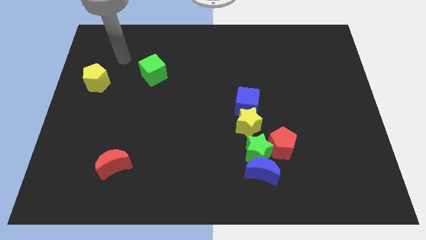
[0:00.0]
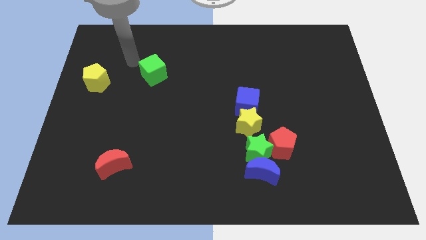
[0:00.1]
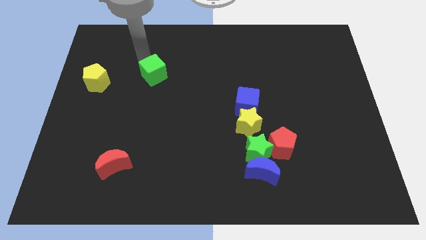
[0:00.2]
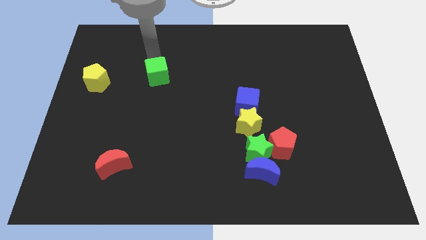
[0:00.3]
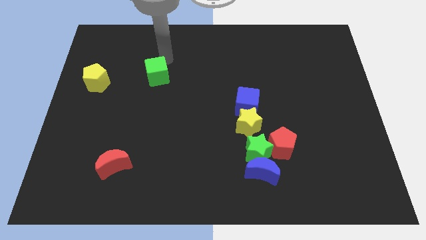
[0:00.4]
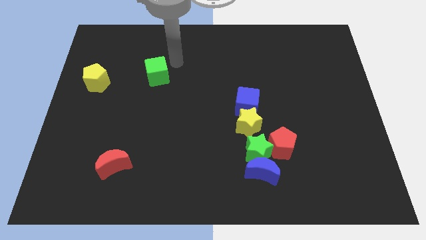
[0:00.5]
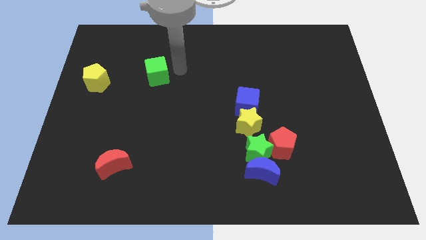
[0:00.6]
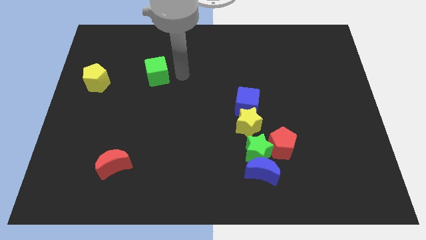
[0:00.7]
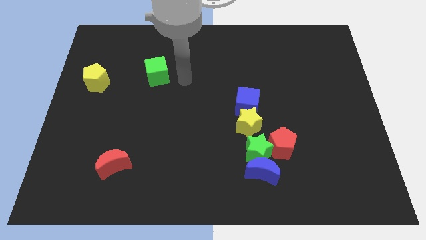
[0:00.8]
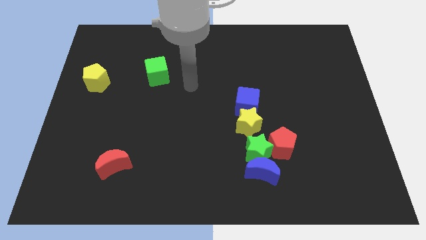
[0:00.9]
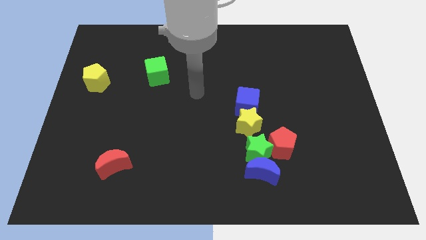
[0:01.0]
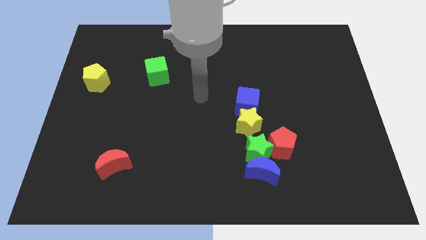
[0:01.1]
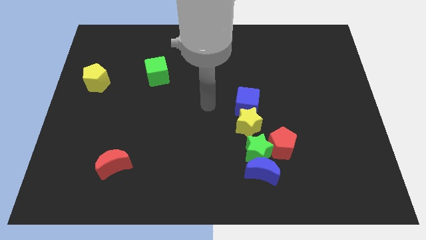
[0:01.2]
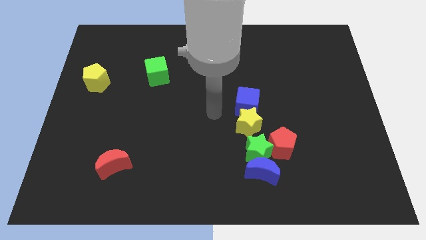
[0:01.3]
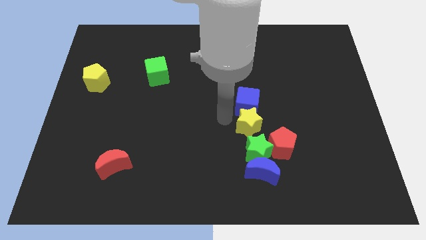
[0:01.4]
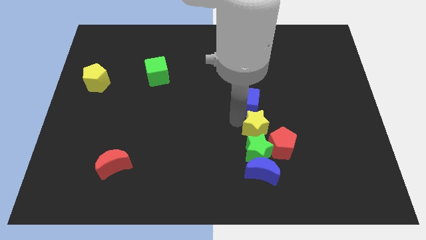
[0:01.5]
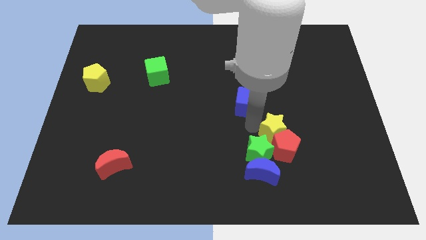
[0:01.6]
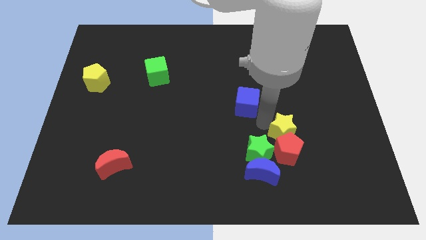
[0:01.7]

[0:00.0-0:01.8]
move the blue cube away from the yellow star

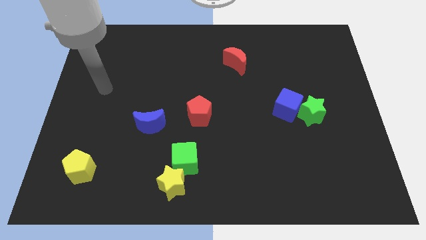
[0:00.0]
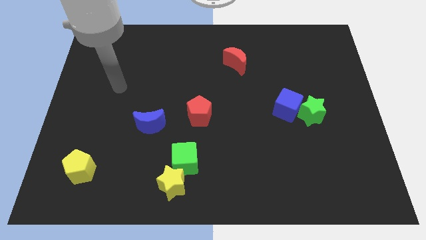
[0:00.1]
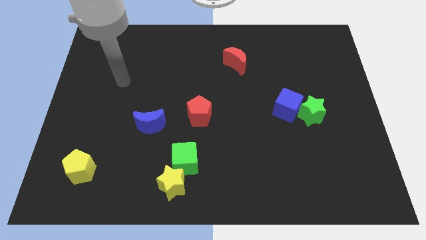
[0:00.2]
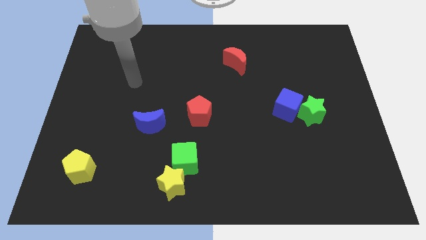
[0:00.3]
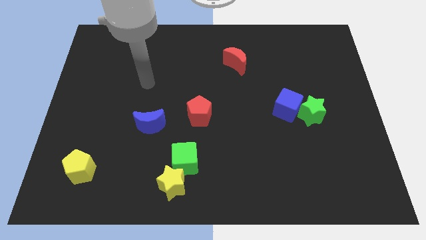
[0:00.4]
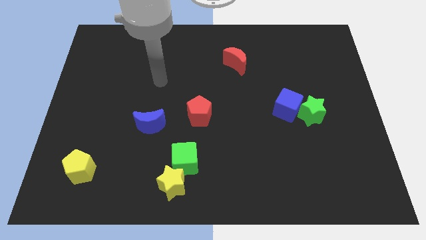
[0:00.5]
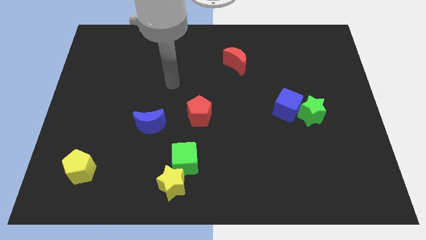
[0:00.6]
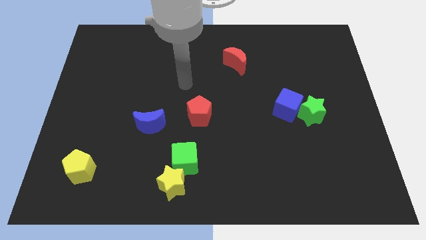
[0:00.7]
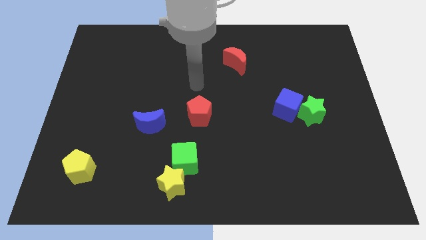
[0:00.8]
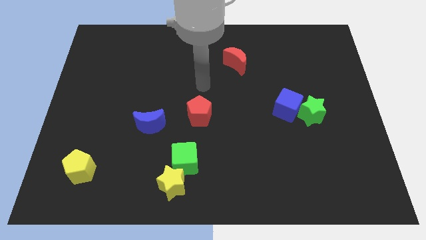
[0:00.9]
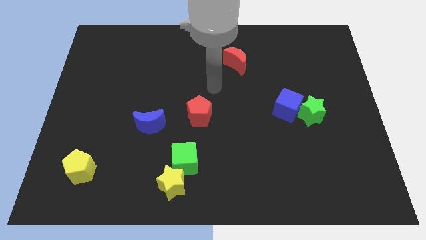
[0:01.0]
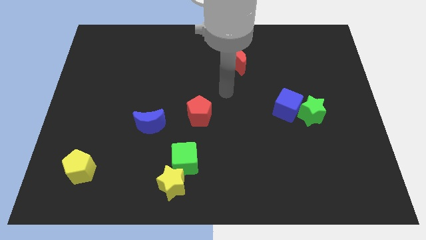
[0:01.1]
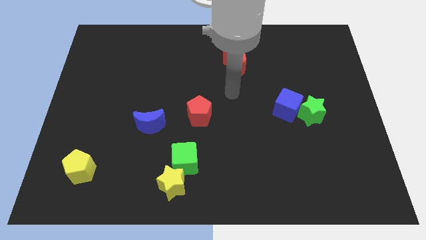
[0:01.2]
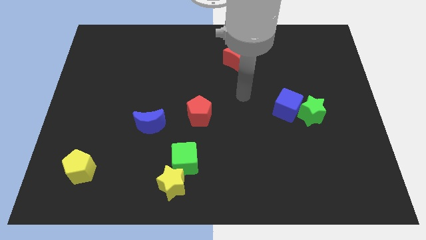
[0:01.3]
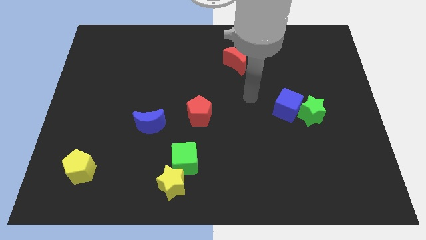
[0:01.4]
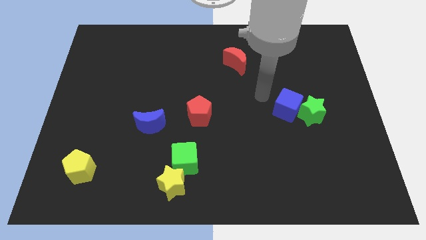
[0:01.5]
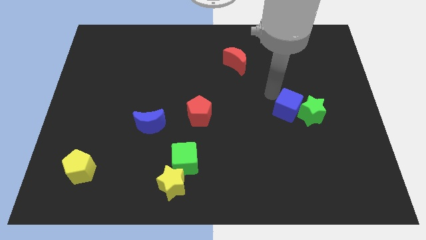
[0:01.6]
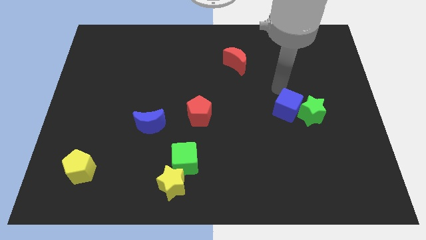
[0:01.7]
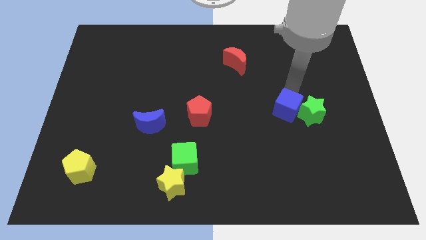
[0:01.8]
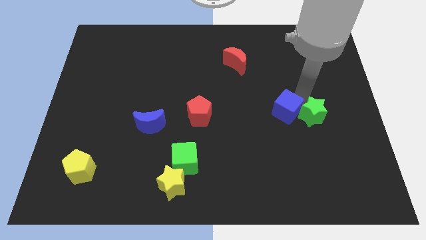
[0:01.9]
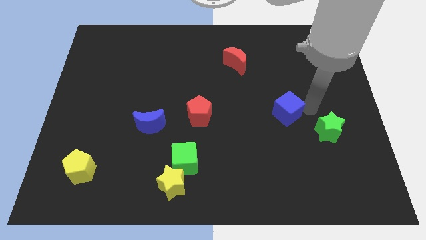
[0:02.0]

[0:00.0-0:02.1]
move the blue cube away from the green star

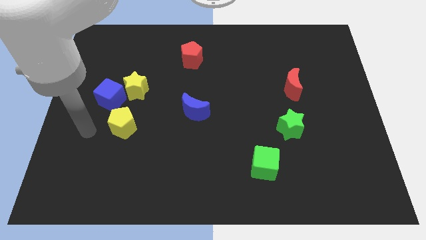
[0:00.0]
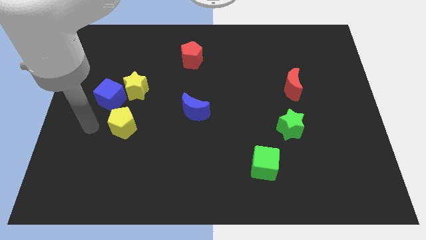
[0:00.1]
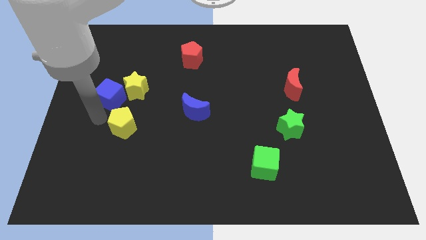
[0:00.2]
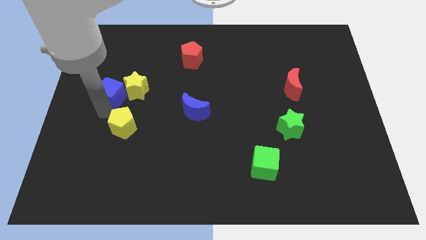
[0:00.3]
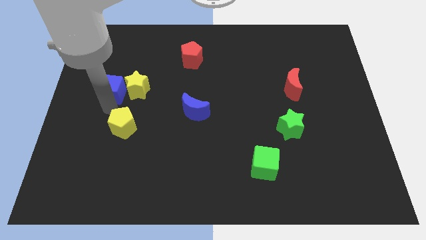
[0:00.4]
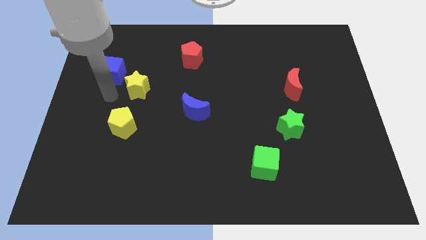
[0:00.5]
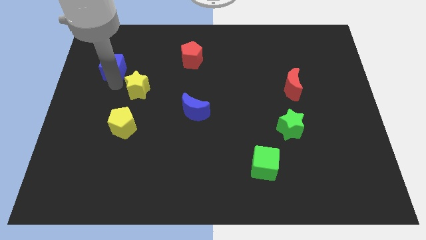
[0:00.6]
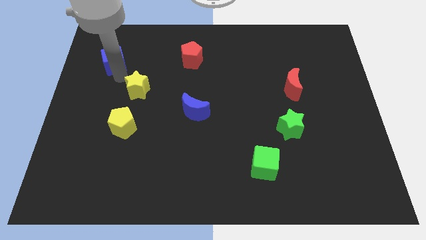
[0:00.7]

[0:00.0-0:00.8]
pull the yellow star apart from the blue cube

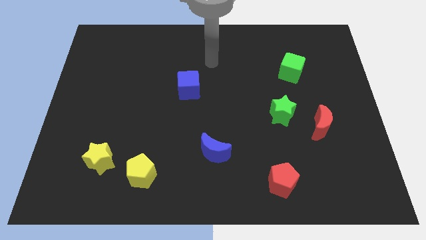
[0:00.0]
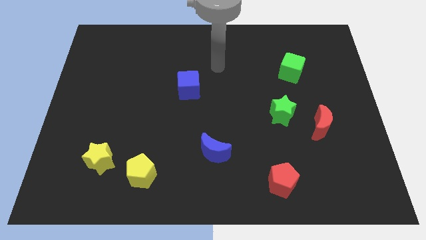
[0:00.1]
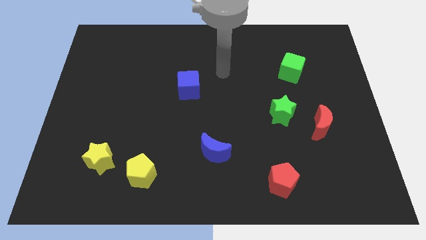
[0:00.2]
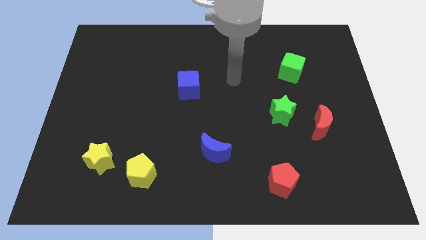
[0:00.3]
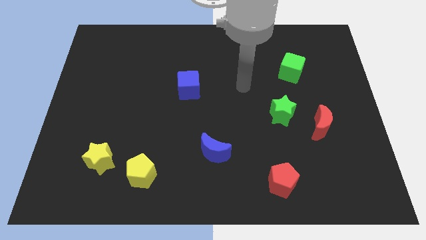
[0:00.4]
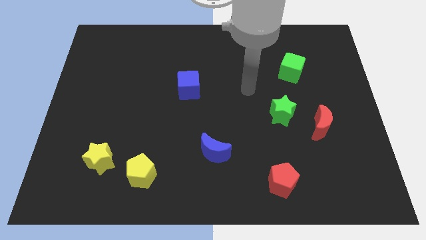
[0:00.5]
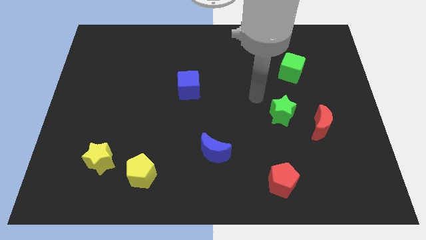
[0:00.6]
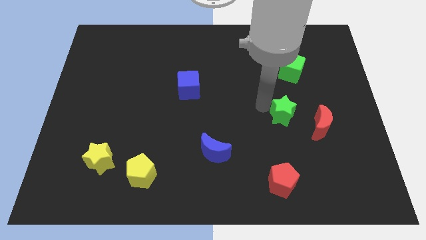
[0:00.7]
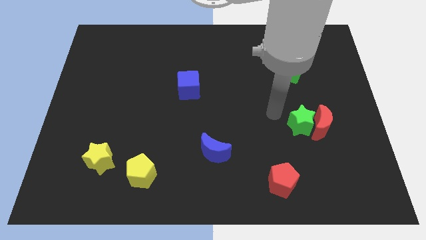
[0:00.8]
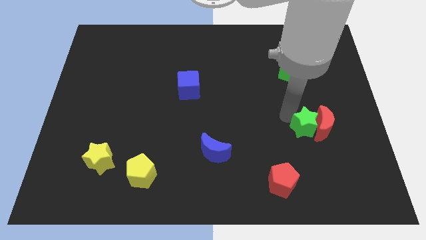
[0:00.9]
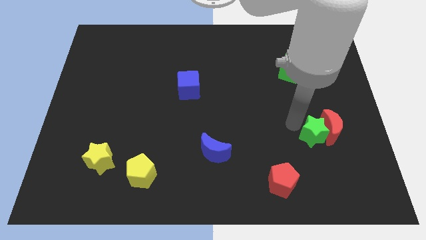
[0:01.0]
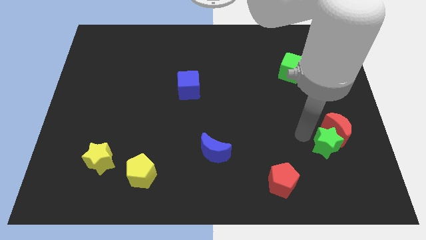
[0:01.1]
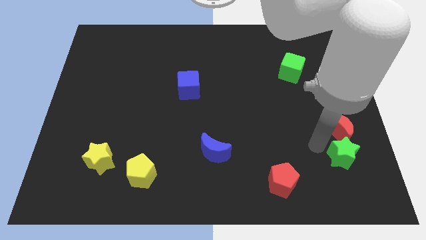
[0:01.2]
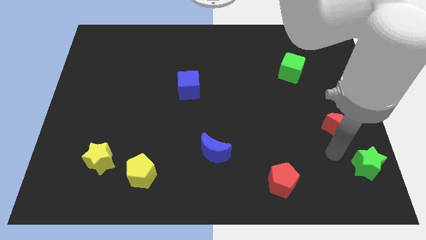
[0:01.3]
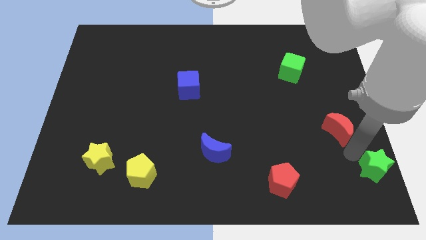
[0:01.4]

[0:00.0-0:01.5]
pull the red moon apart from the green star

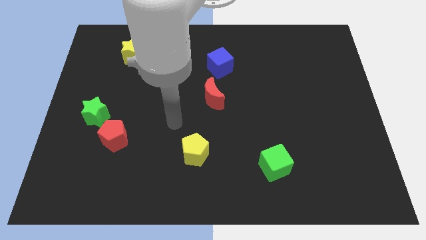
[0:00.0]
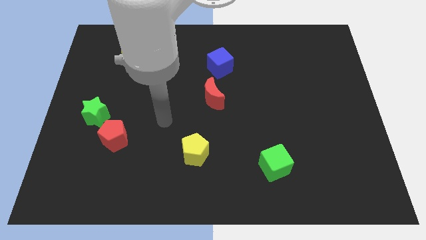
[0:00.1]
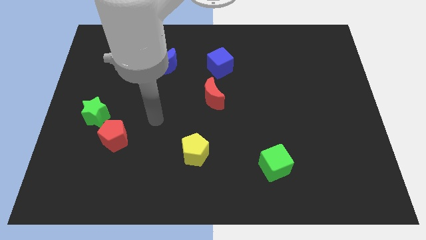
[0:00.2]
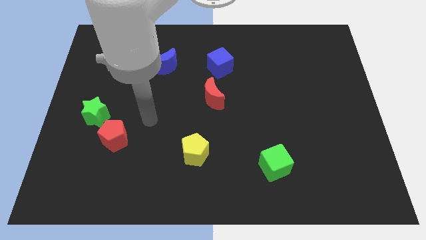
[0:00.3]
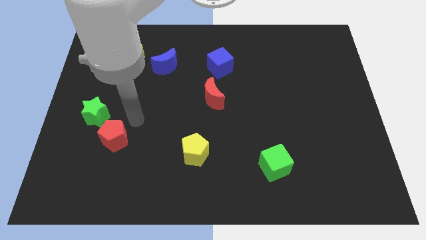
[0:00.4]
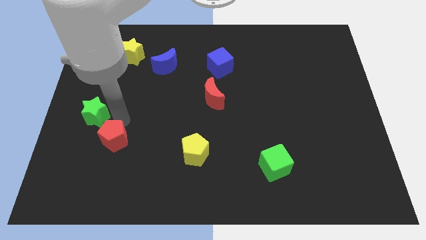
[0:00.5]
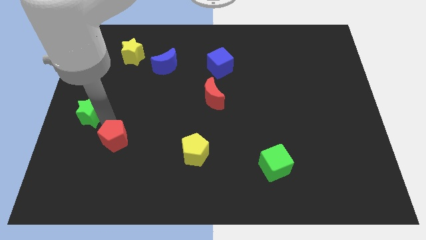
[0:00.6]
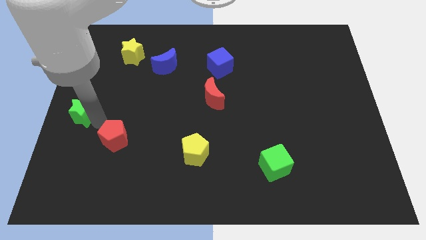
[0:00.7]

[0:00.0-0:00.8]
separate the red pentagon from the green star

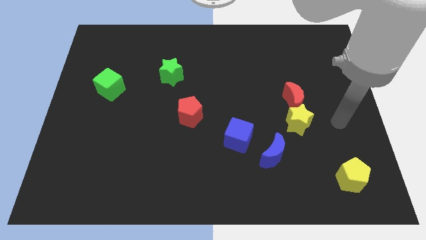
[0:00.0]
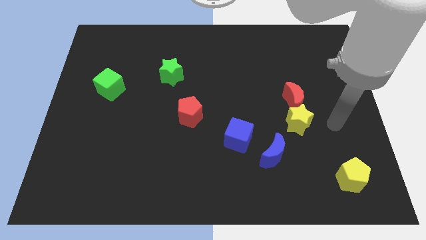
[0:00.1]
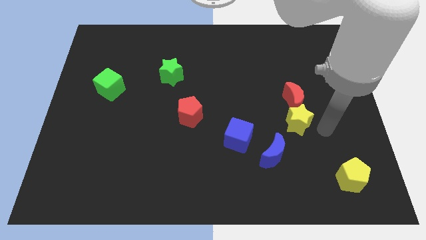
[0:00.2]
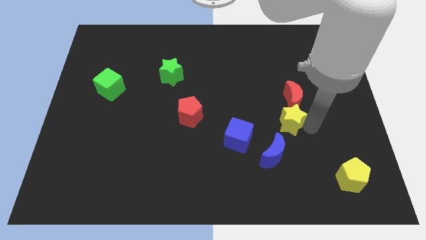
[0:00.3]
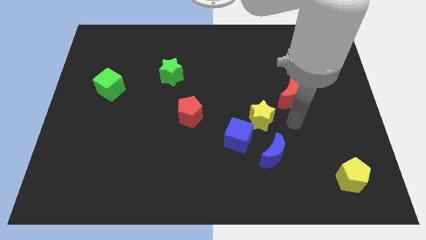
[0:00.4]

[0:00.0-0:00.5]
pull the red moon apart from the yellow star

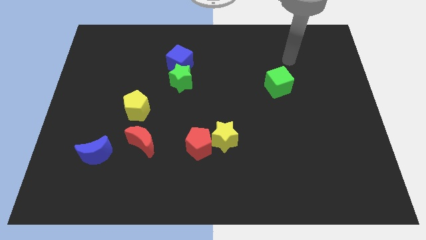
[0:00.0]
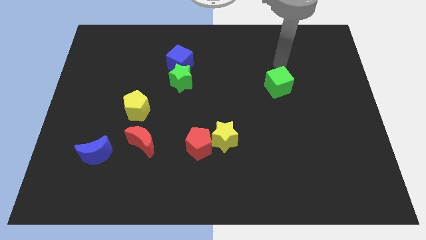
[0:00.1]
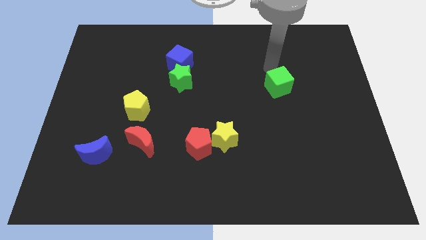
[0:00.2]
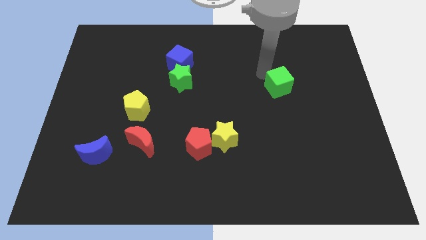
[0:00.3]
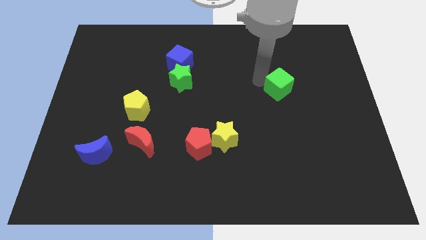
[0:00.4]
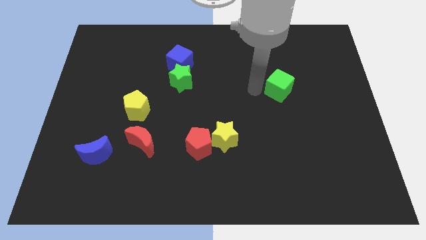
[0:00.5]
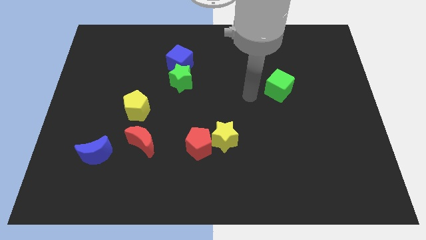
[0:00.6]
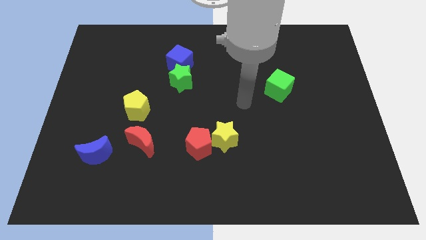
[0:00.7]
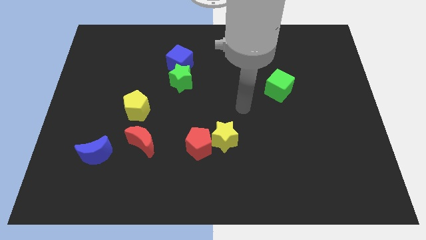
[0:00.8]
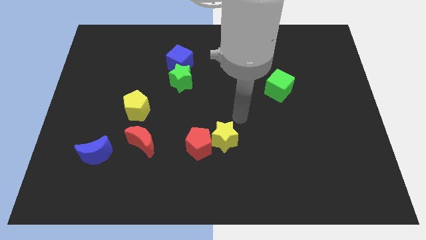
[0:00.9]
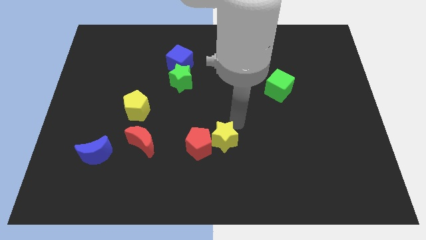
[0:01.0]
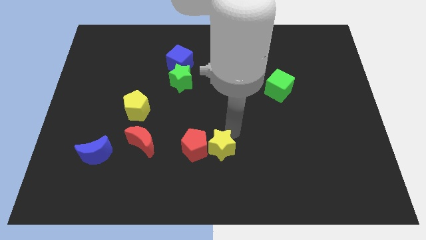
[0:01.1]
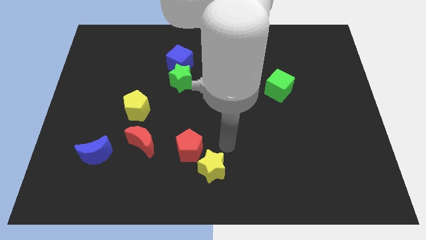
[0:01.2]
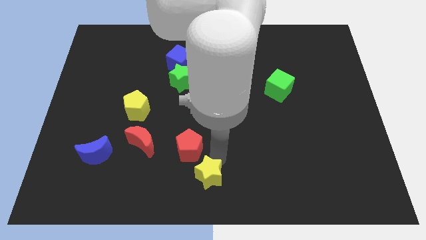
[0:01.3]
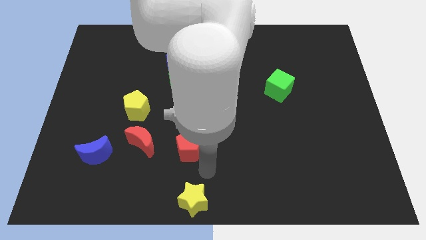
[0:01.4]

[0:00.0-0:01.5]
pull the red pentagon apart from the yellow star

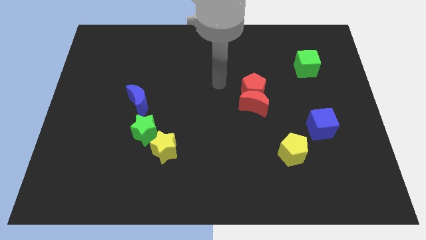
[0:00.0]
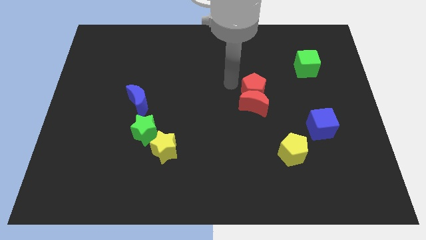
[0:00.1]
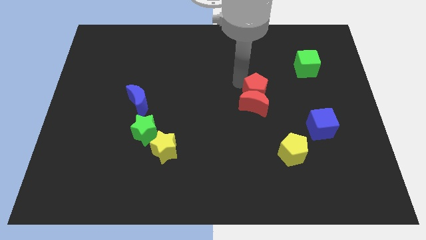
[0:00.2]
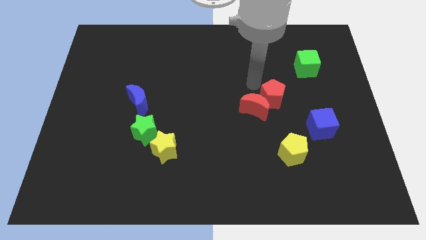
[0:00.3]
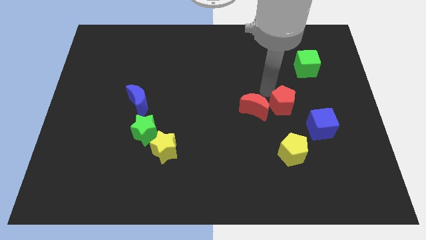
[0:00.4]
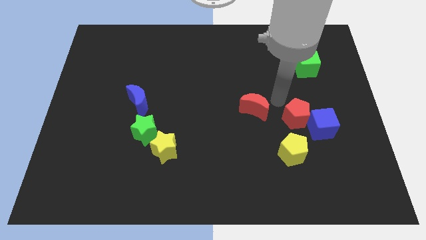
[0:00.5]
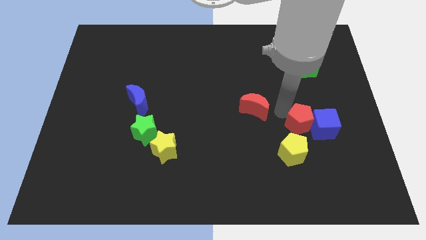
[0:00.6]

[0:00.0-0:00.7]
pull the red moon apart from the red pentagon
